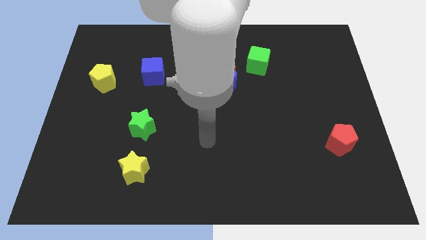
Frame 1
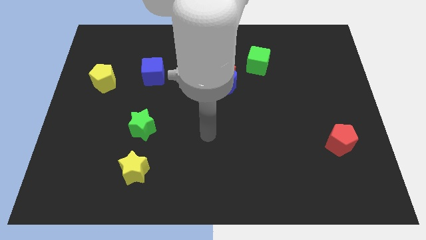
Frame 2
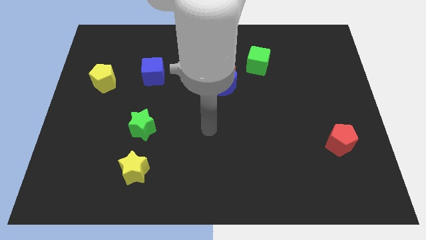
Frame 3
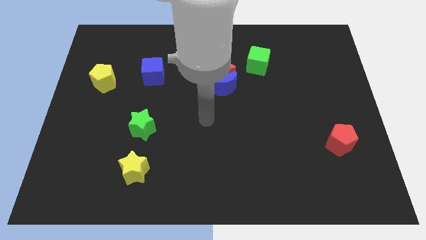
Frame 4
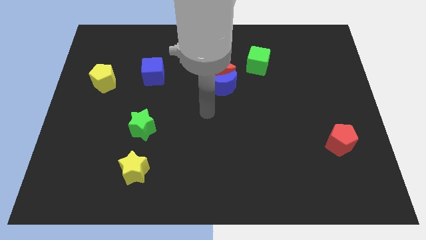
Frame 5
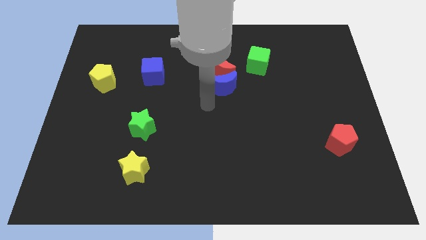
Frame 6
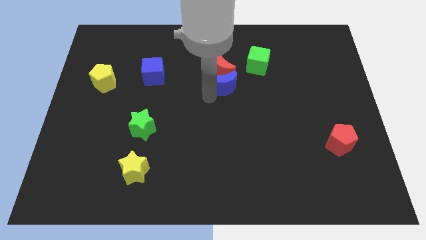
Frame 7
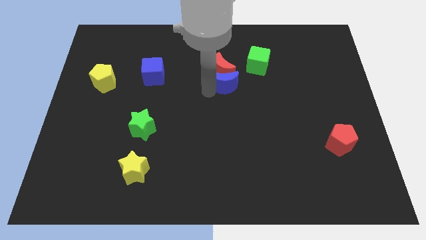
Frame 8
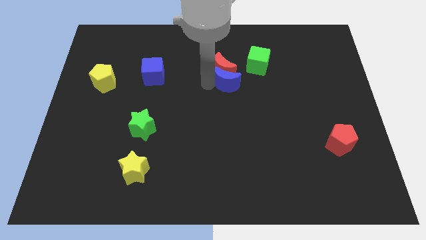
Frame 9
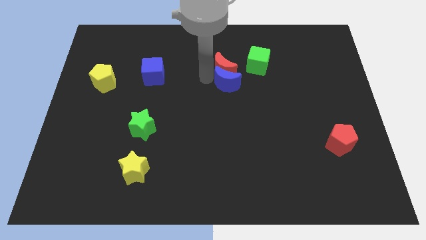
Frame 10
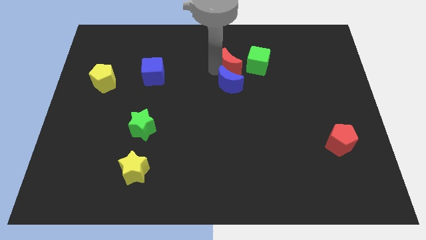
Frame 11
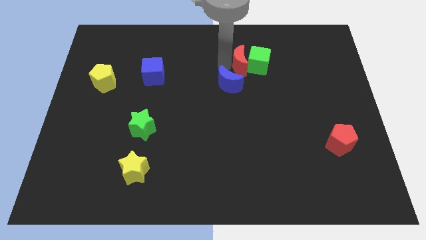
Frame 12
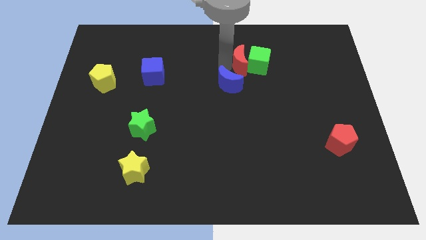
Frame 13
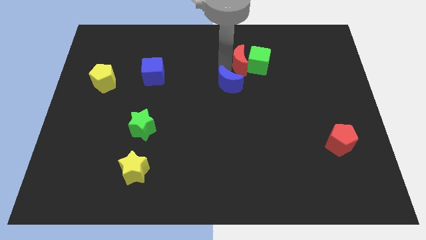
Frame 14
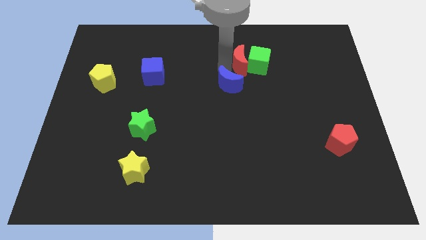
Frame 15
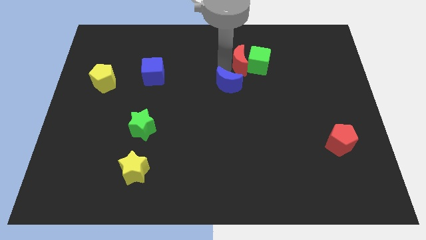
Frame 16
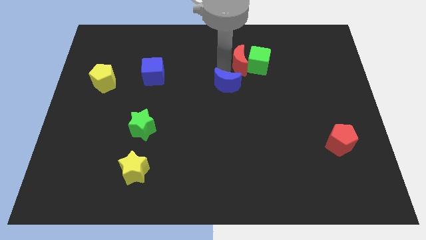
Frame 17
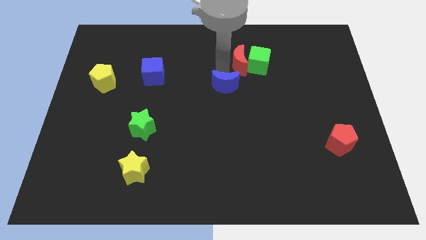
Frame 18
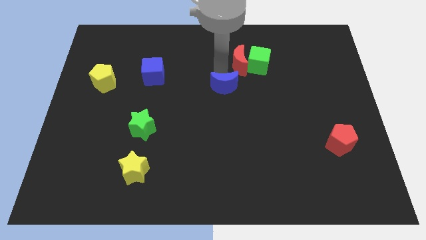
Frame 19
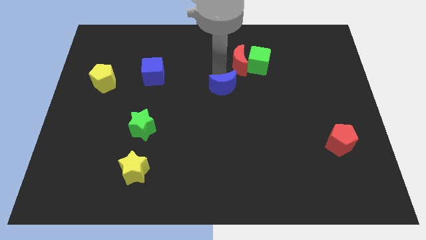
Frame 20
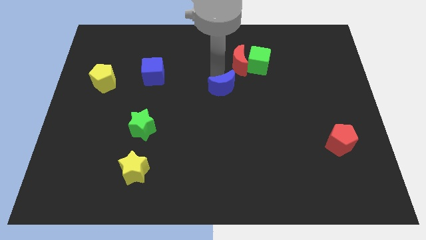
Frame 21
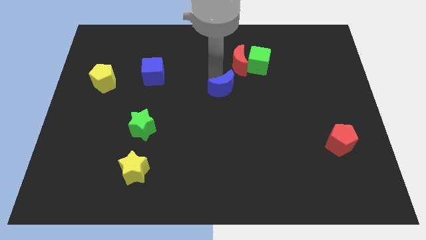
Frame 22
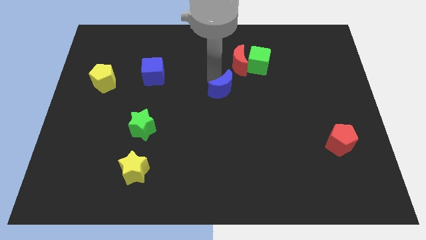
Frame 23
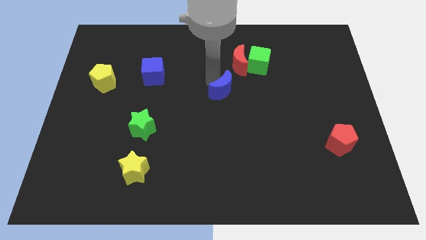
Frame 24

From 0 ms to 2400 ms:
pull the blue moon apart from the red moon

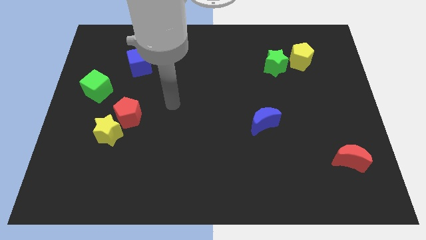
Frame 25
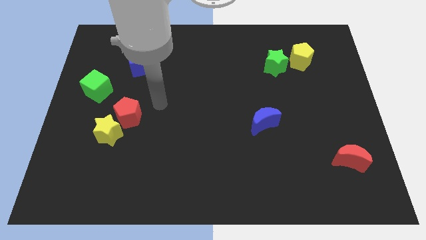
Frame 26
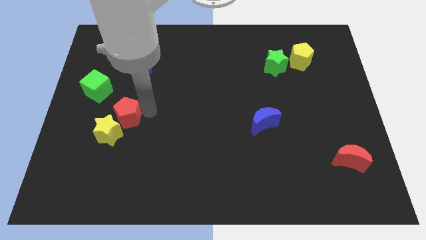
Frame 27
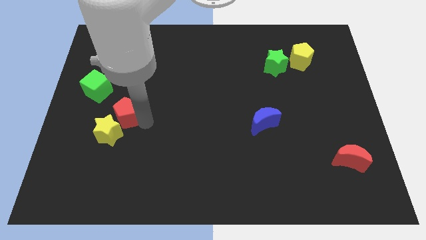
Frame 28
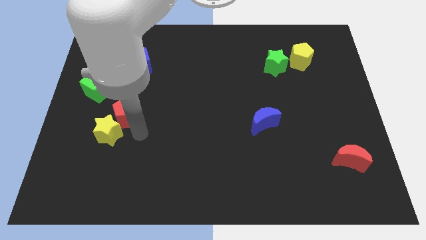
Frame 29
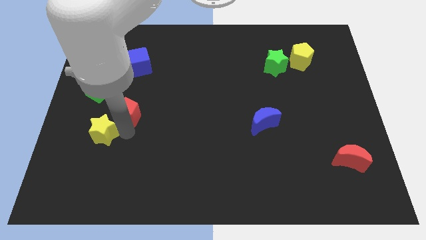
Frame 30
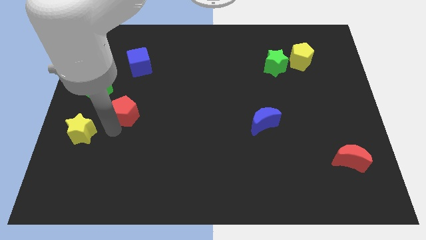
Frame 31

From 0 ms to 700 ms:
move the red pentagon away from the yellow star

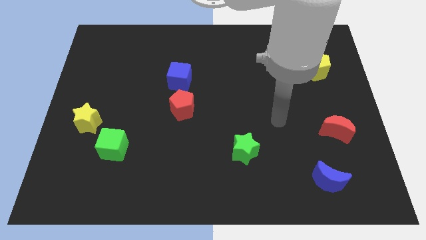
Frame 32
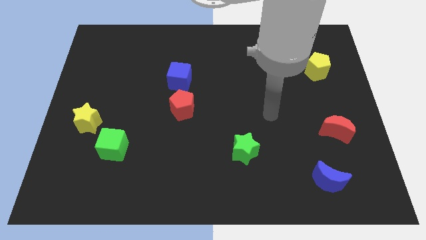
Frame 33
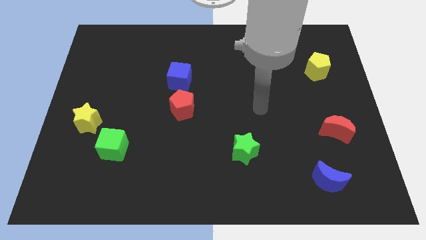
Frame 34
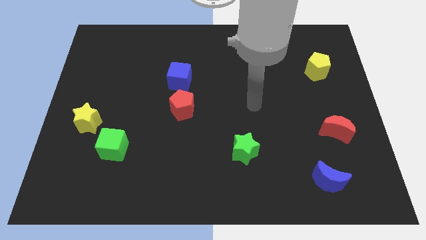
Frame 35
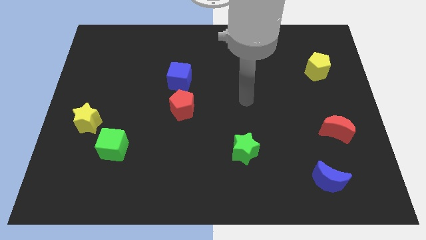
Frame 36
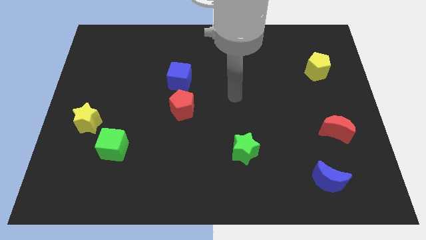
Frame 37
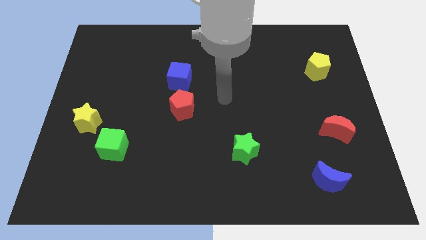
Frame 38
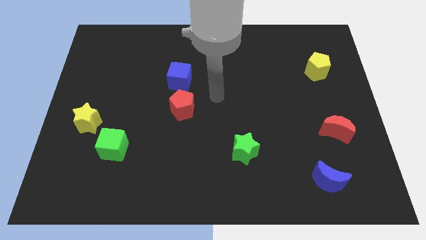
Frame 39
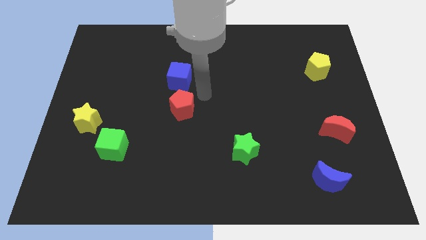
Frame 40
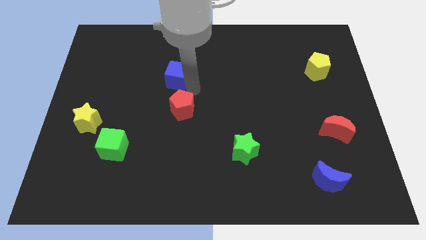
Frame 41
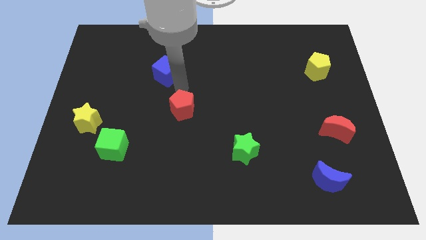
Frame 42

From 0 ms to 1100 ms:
separate the red pentagon from the blue cube

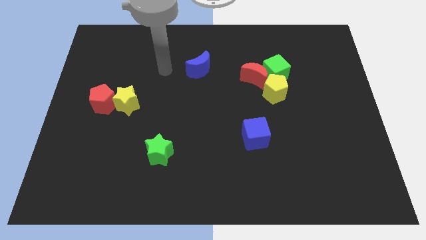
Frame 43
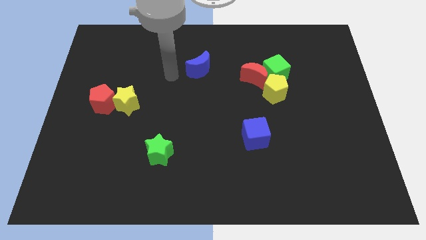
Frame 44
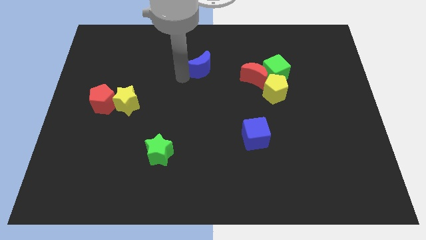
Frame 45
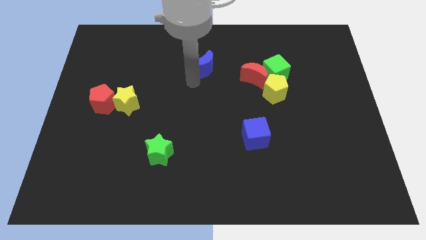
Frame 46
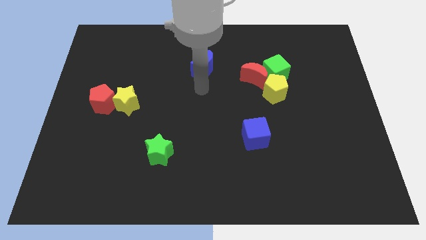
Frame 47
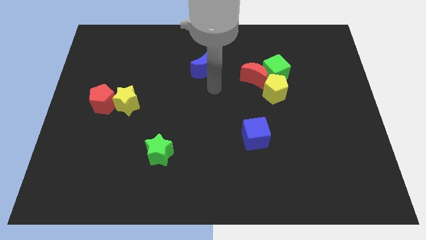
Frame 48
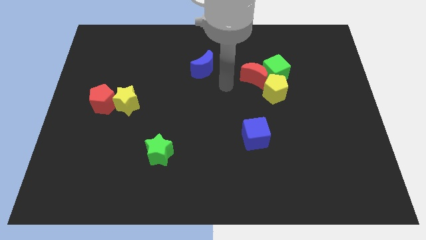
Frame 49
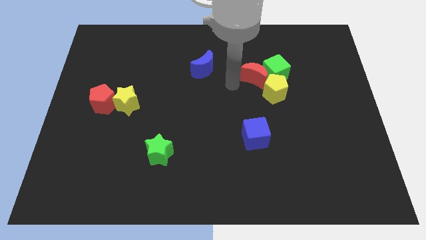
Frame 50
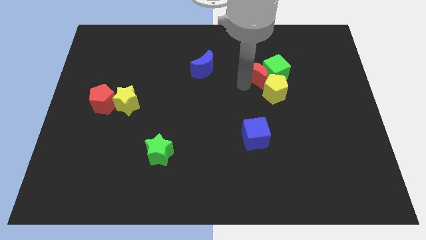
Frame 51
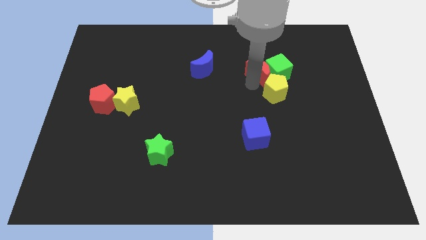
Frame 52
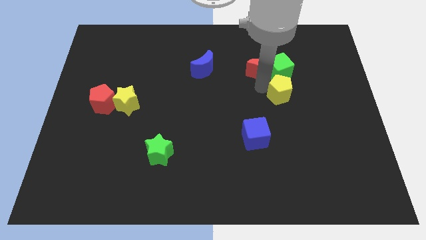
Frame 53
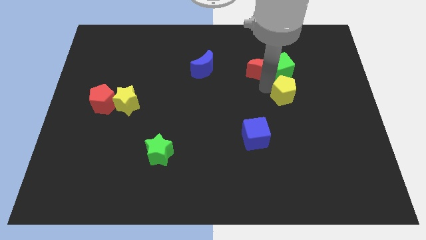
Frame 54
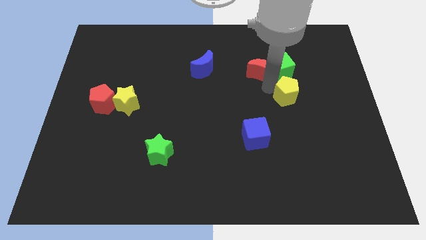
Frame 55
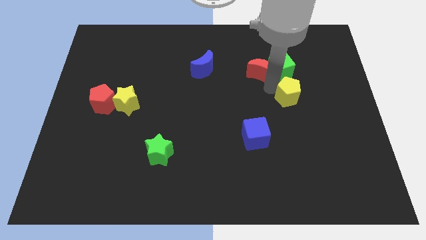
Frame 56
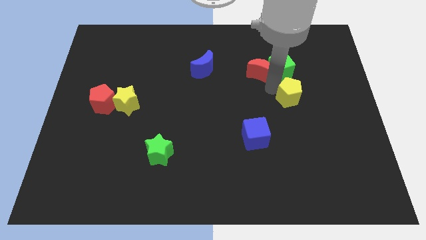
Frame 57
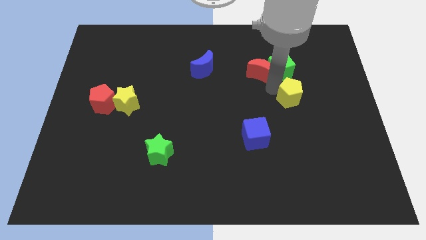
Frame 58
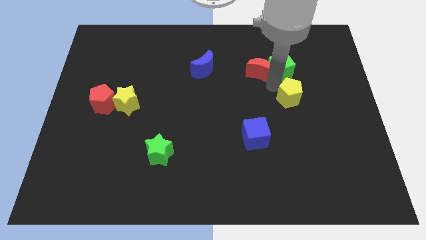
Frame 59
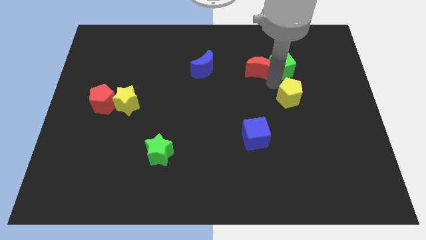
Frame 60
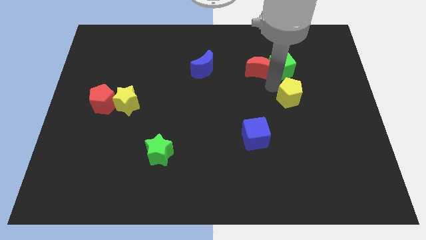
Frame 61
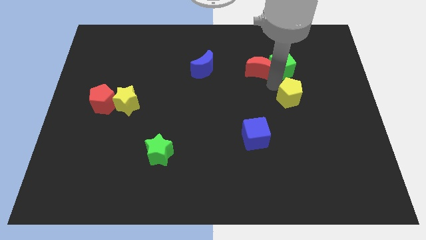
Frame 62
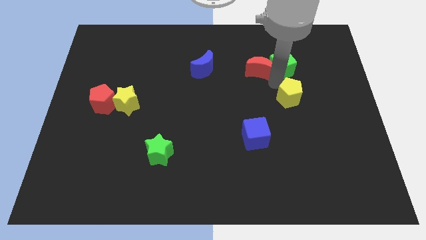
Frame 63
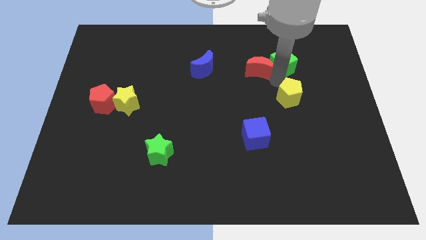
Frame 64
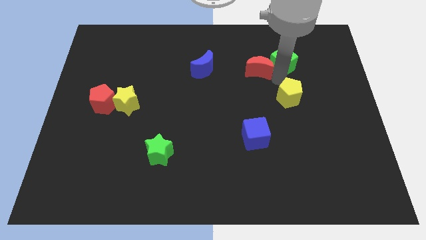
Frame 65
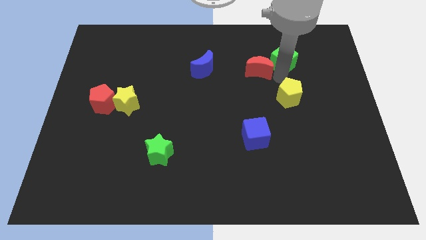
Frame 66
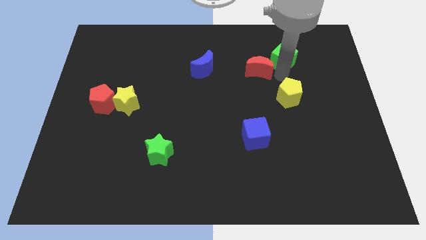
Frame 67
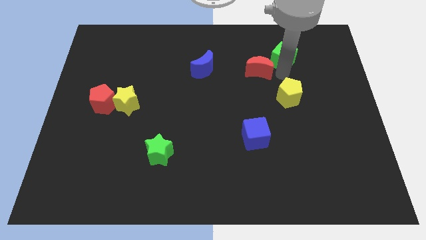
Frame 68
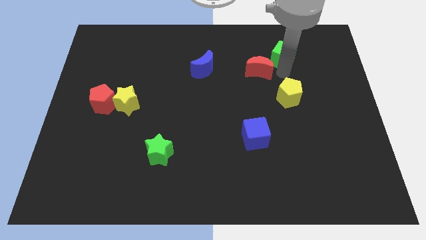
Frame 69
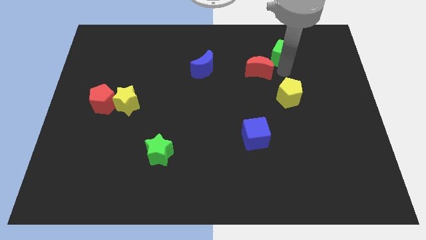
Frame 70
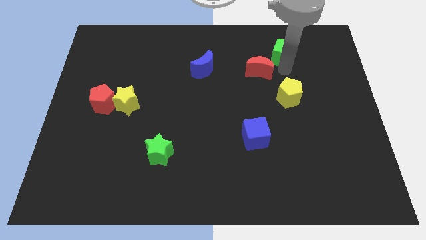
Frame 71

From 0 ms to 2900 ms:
separate the green cube from the red moon and yellow pentagon

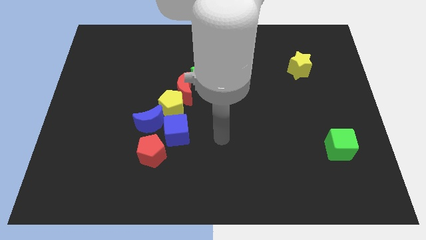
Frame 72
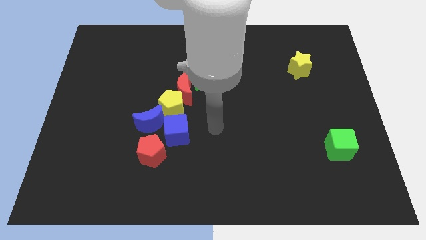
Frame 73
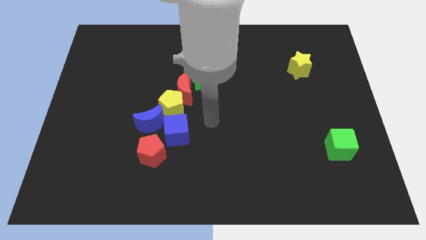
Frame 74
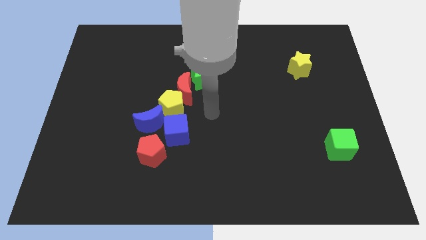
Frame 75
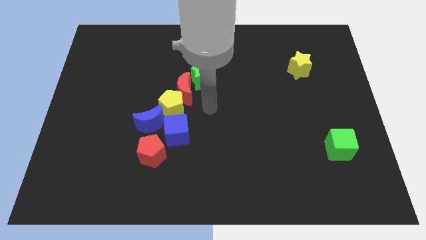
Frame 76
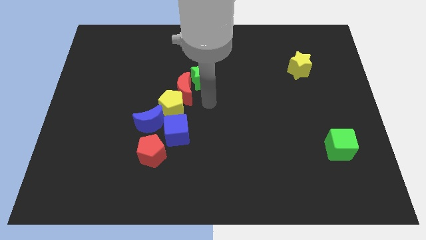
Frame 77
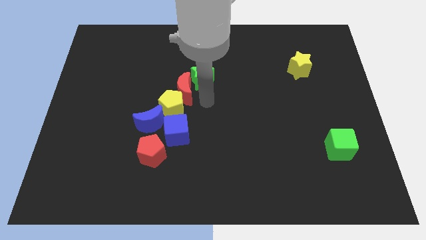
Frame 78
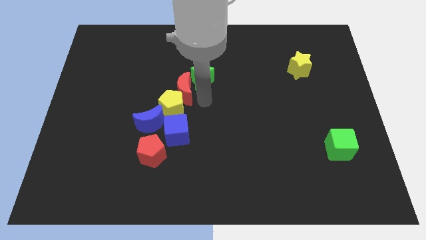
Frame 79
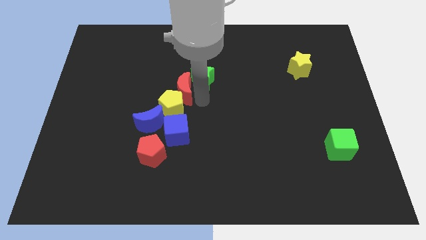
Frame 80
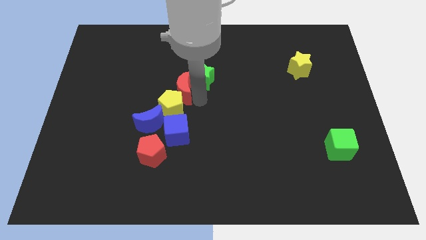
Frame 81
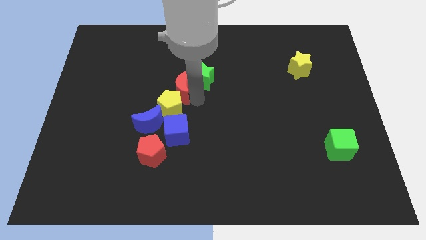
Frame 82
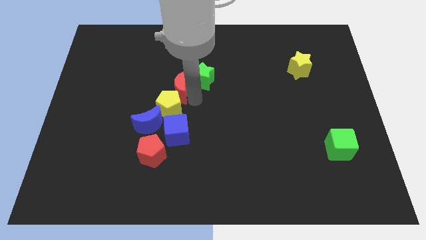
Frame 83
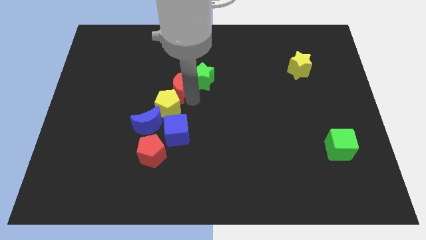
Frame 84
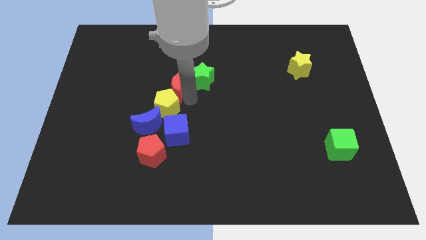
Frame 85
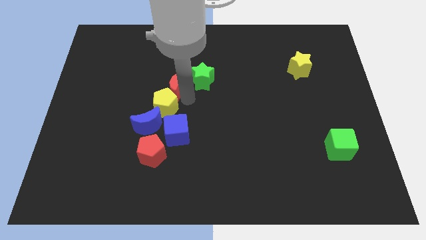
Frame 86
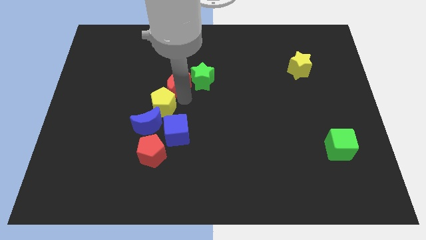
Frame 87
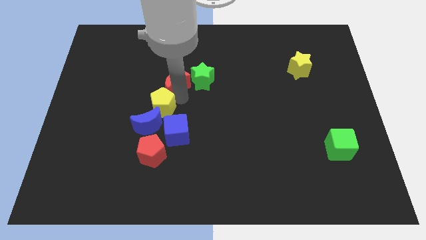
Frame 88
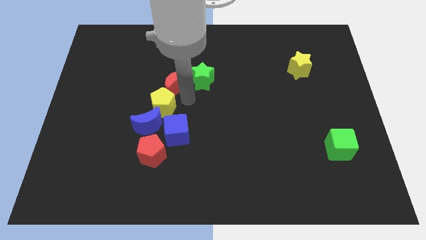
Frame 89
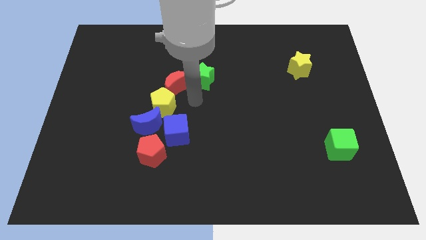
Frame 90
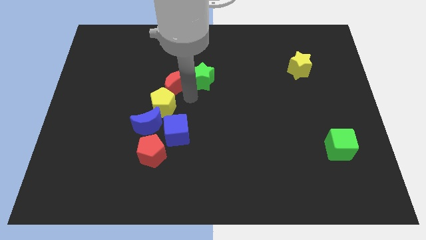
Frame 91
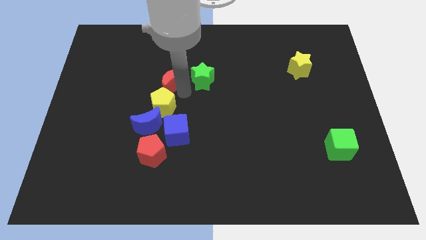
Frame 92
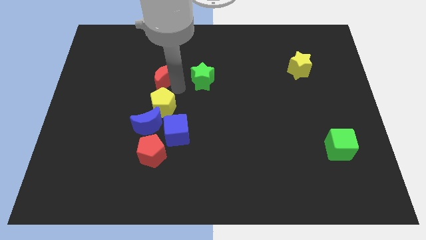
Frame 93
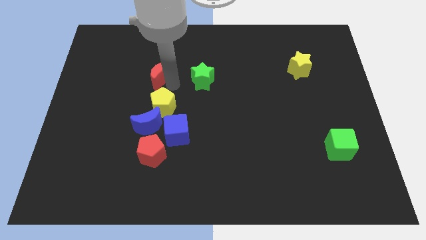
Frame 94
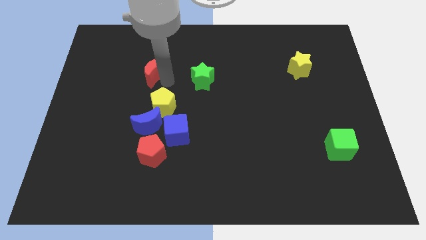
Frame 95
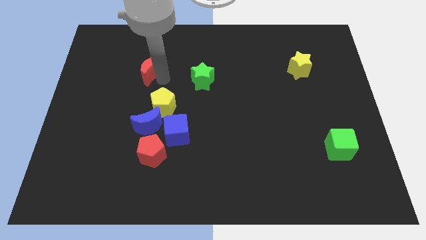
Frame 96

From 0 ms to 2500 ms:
separate the red moon from the yellow pentagon and green star
